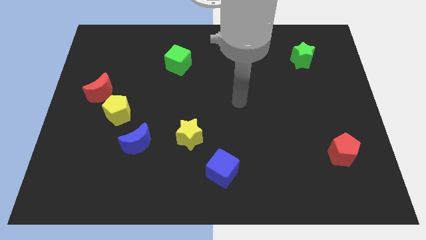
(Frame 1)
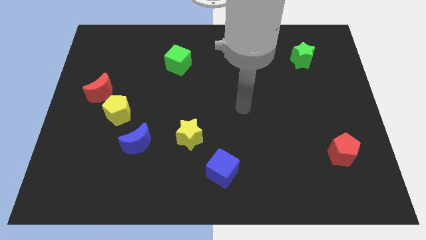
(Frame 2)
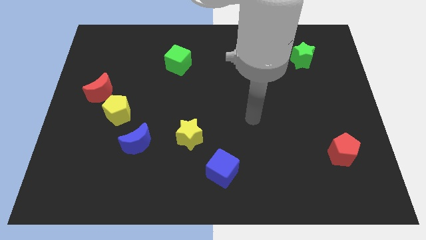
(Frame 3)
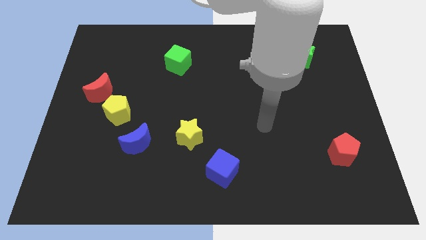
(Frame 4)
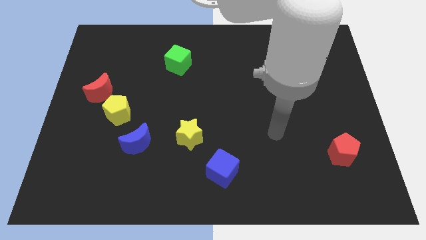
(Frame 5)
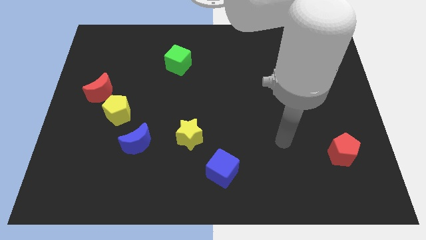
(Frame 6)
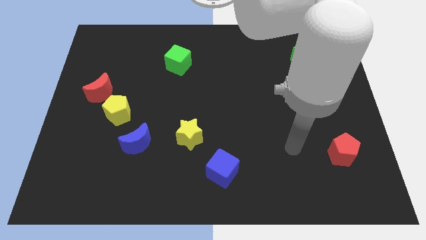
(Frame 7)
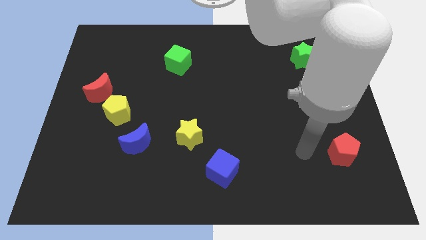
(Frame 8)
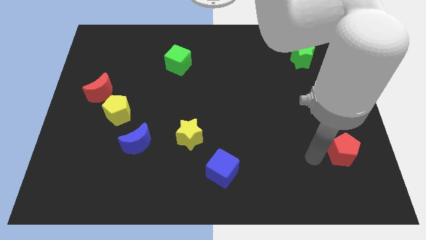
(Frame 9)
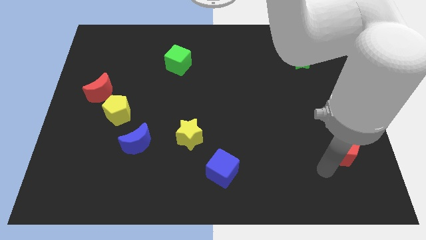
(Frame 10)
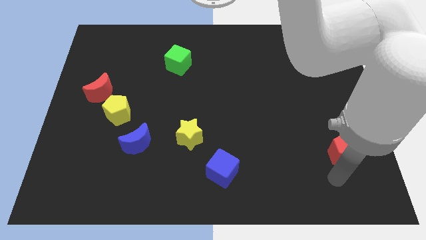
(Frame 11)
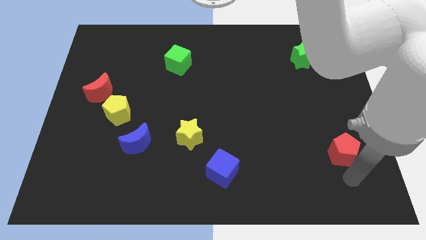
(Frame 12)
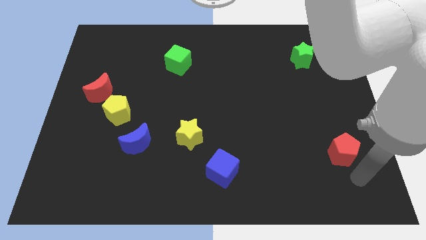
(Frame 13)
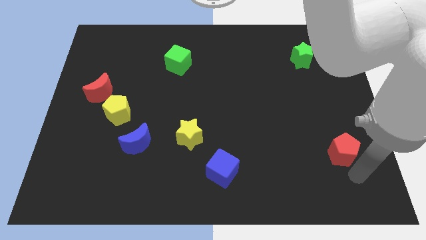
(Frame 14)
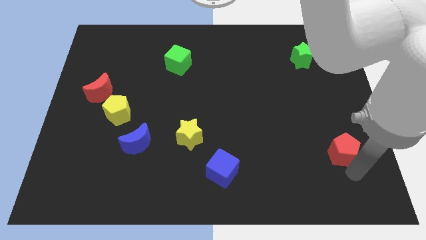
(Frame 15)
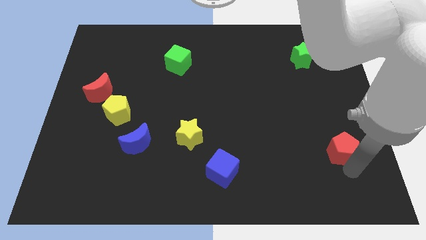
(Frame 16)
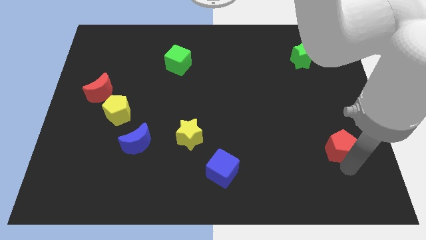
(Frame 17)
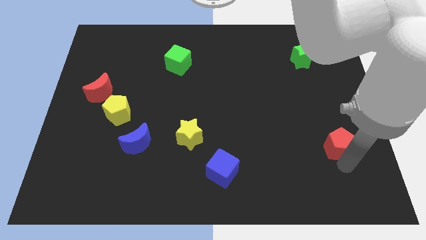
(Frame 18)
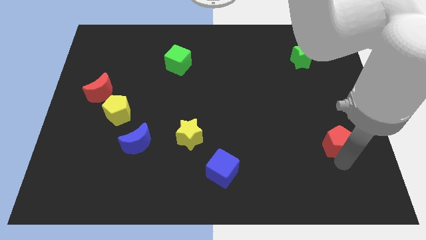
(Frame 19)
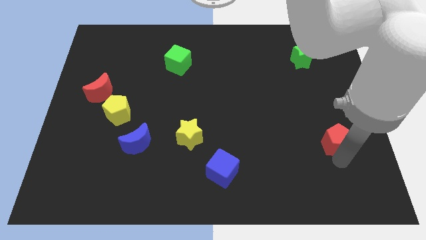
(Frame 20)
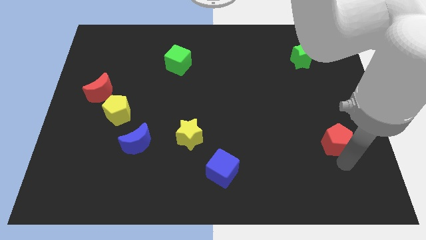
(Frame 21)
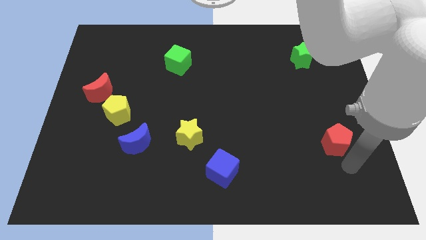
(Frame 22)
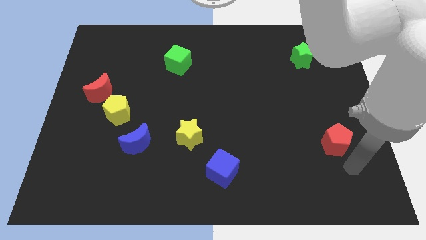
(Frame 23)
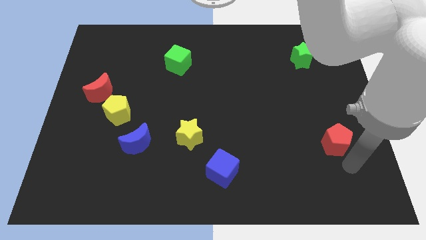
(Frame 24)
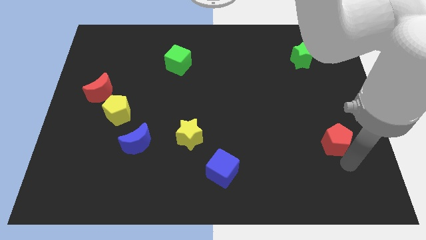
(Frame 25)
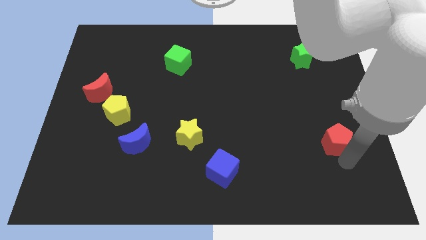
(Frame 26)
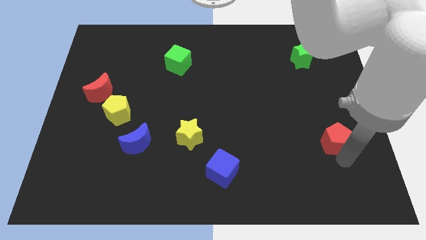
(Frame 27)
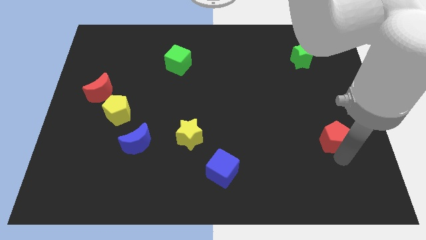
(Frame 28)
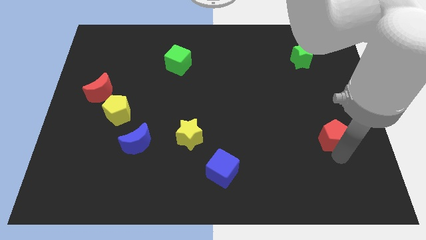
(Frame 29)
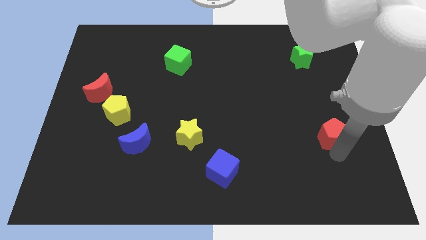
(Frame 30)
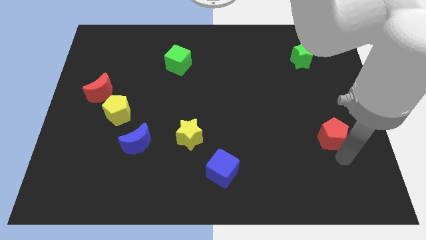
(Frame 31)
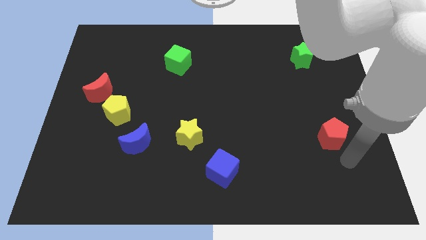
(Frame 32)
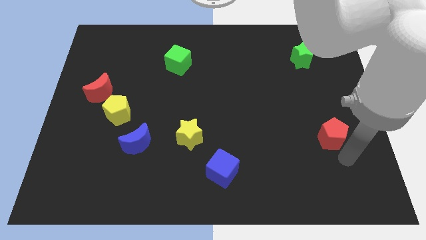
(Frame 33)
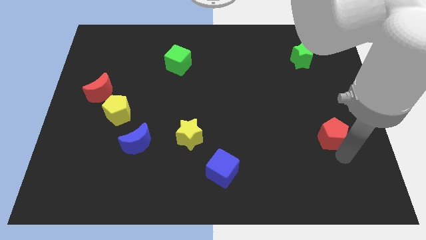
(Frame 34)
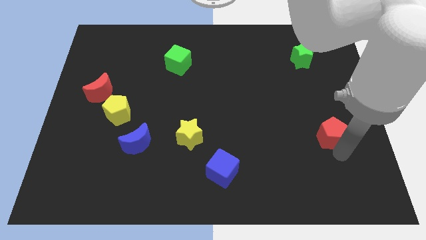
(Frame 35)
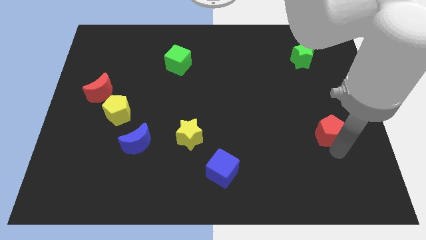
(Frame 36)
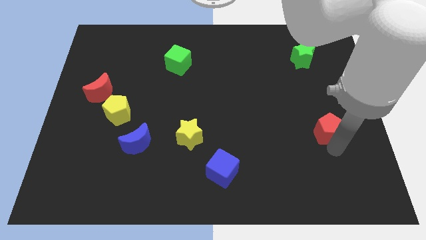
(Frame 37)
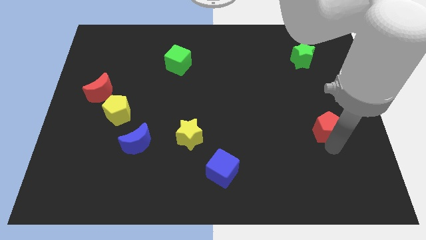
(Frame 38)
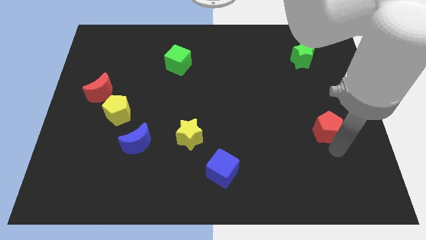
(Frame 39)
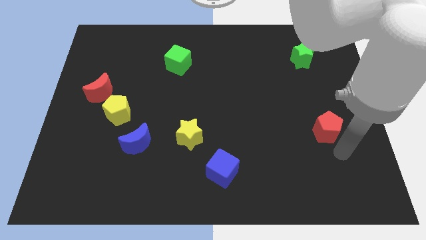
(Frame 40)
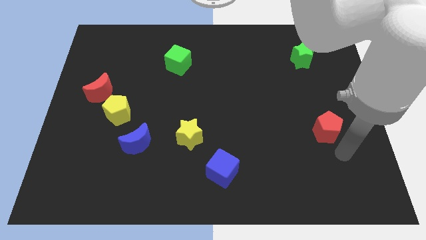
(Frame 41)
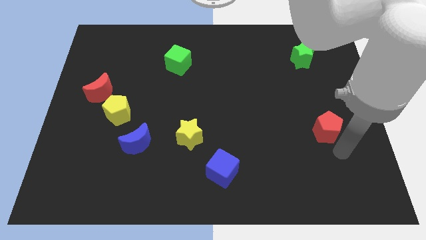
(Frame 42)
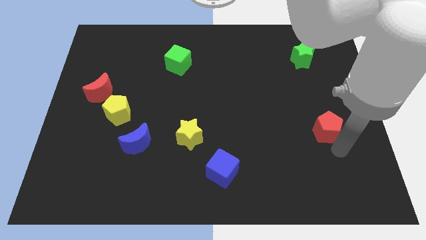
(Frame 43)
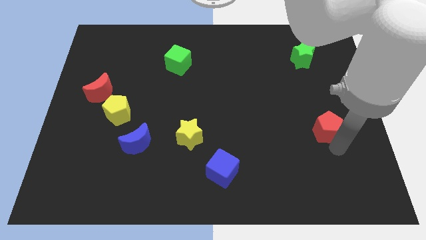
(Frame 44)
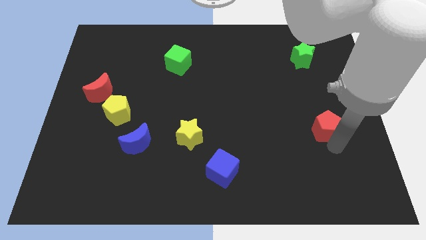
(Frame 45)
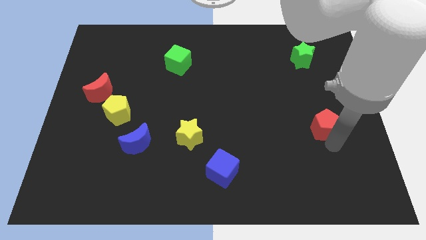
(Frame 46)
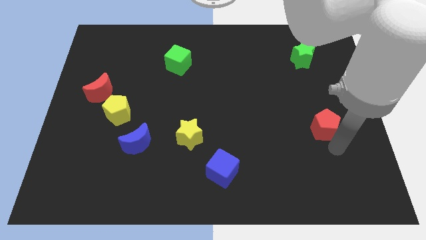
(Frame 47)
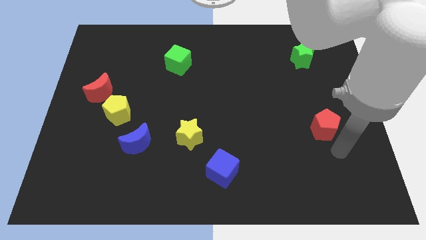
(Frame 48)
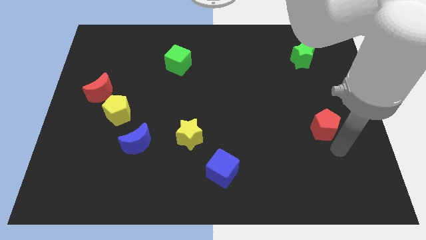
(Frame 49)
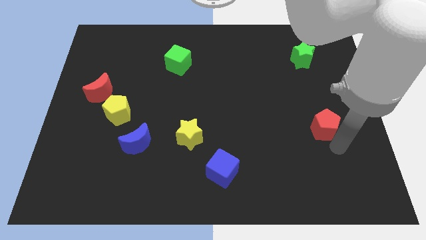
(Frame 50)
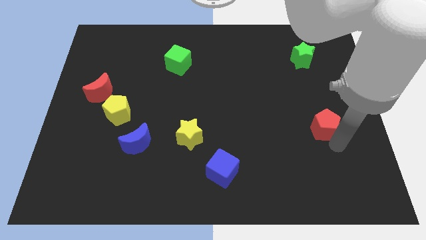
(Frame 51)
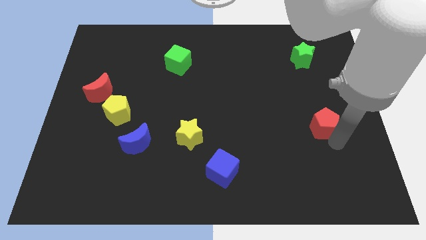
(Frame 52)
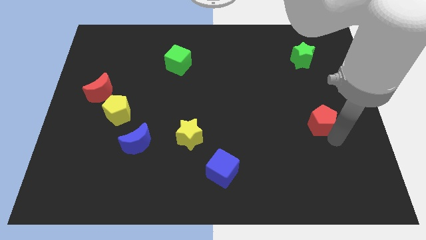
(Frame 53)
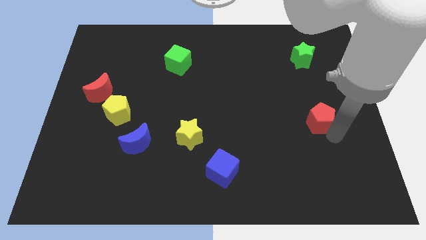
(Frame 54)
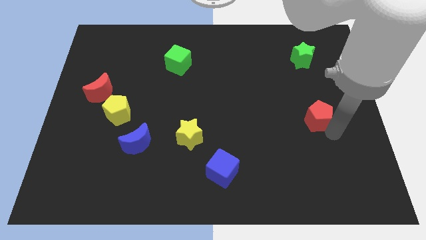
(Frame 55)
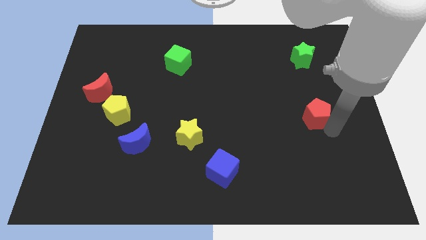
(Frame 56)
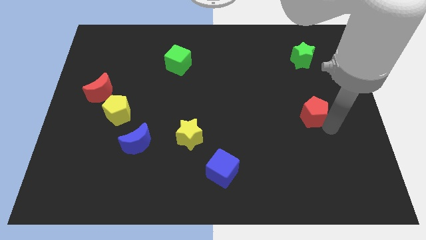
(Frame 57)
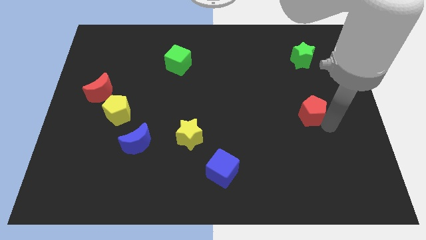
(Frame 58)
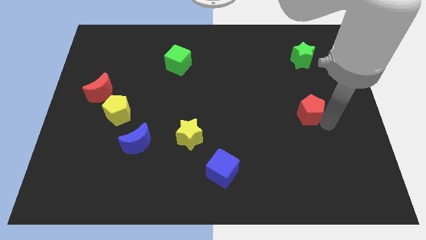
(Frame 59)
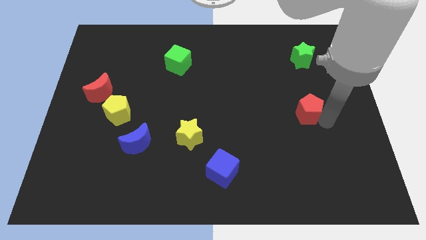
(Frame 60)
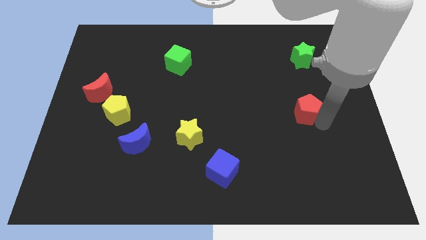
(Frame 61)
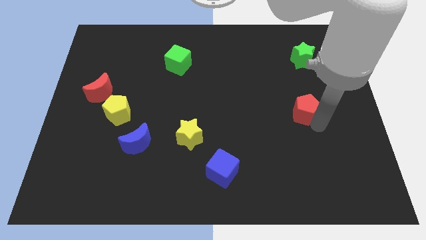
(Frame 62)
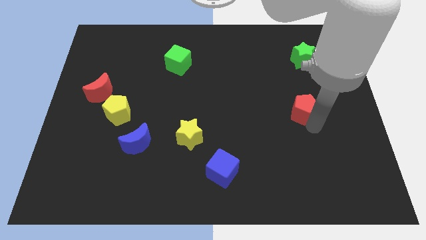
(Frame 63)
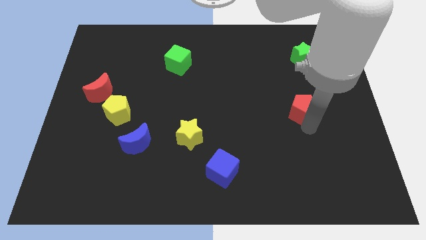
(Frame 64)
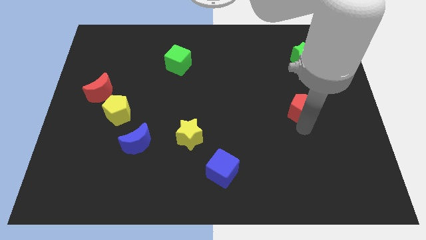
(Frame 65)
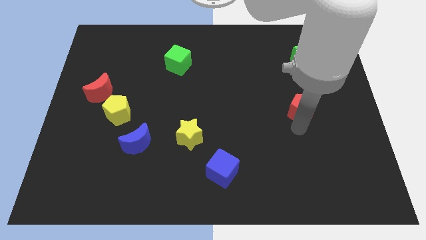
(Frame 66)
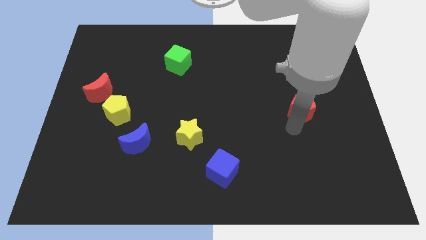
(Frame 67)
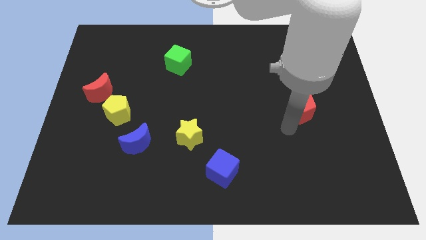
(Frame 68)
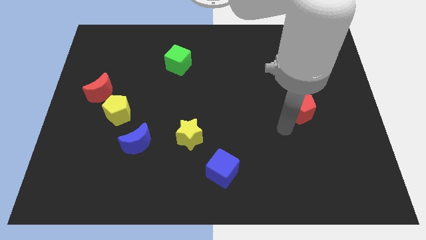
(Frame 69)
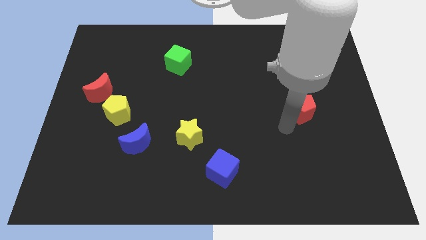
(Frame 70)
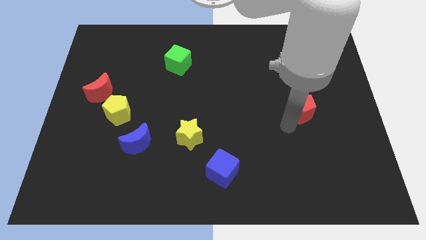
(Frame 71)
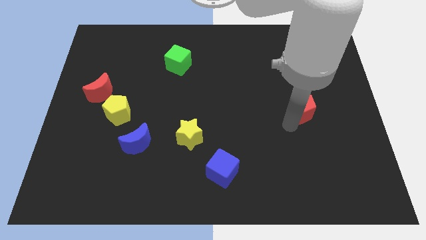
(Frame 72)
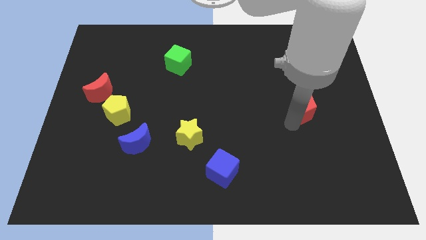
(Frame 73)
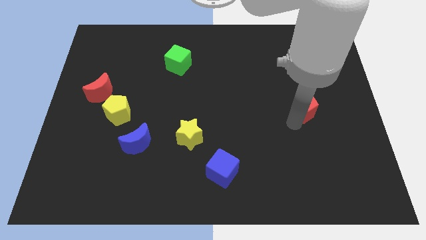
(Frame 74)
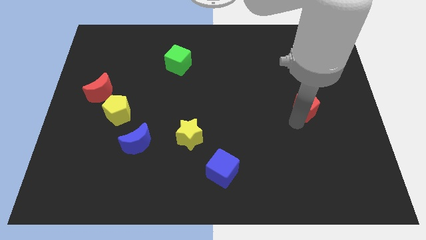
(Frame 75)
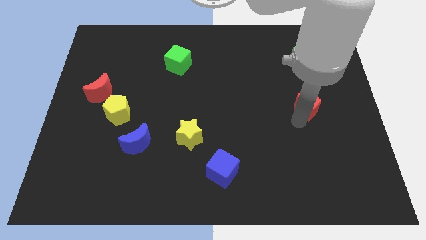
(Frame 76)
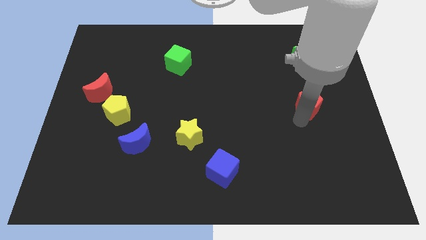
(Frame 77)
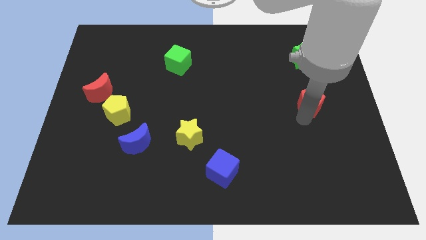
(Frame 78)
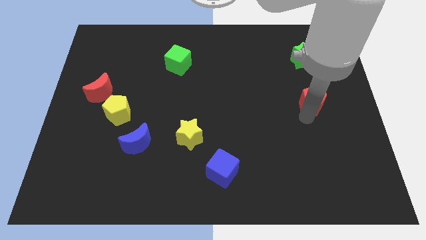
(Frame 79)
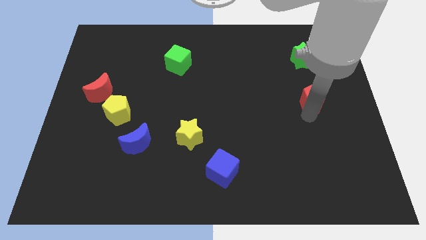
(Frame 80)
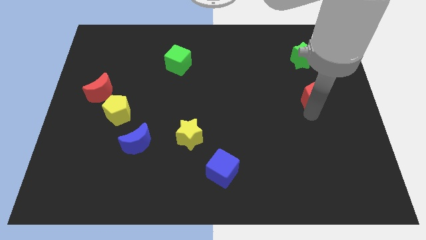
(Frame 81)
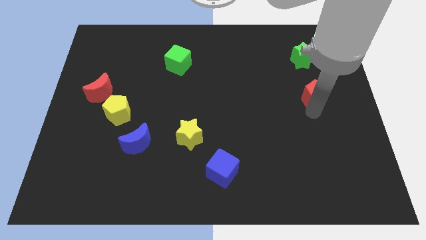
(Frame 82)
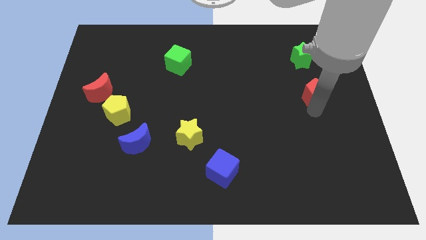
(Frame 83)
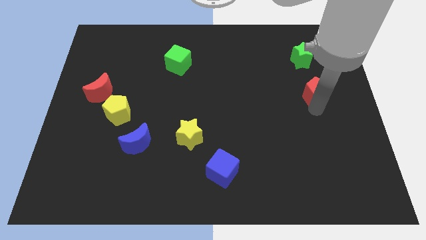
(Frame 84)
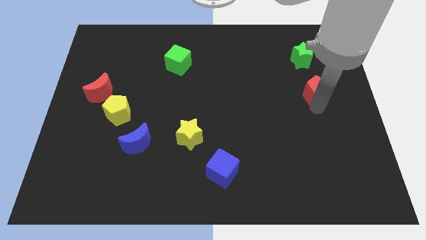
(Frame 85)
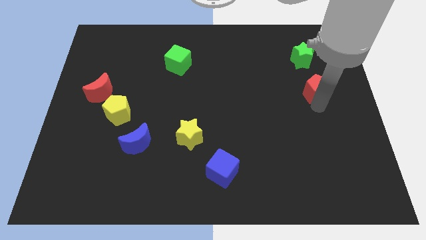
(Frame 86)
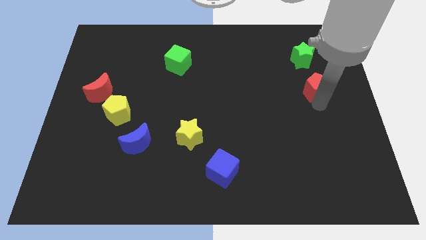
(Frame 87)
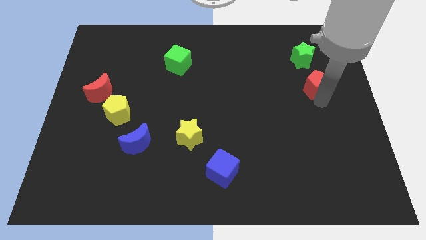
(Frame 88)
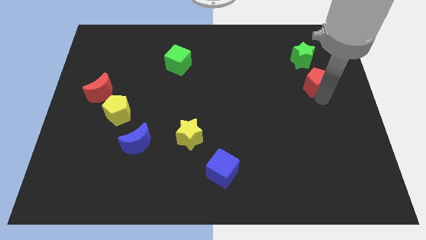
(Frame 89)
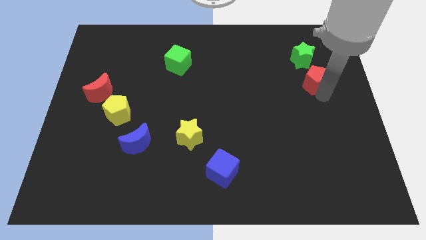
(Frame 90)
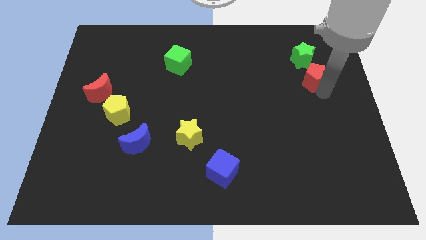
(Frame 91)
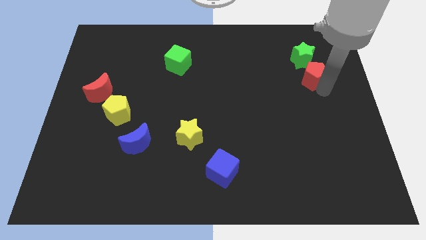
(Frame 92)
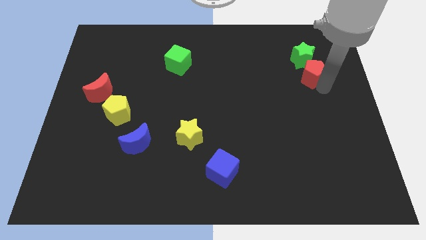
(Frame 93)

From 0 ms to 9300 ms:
push the red pentagon next to the green star
